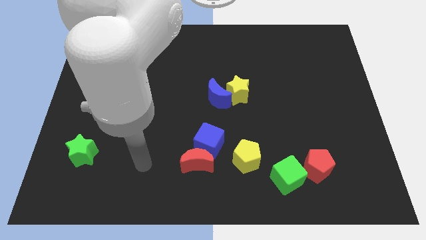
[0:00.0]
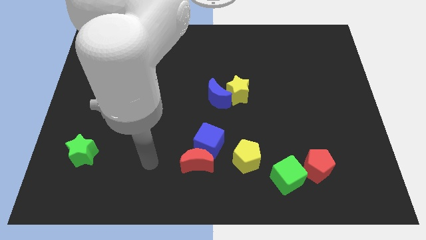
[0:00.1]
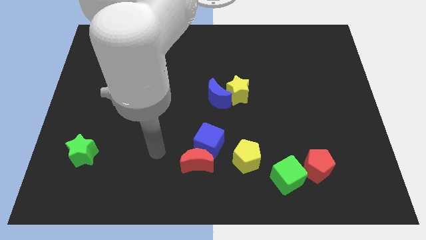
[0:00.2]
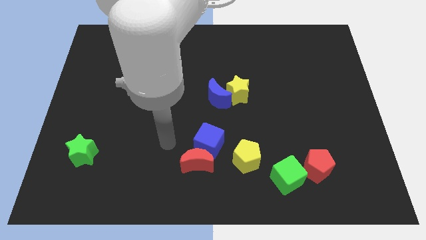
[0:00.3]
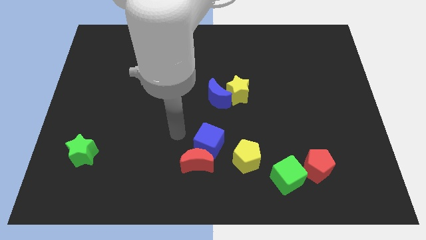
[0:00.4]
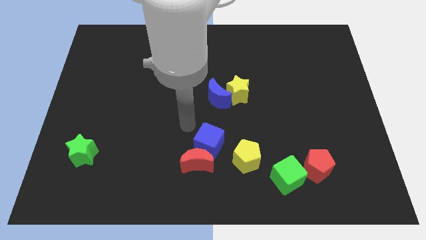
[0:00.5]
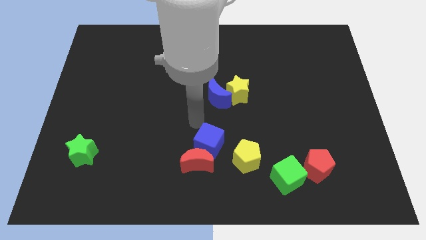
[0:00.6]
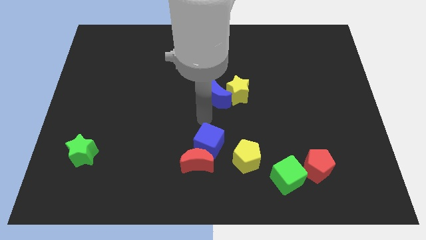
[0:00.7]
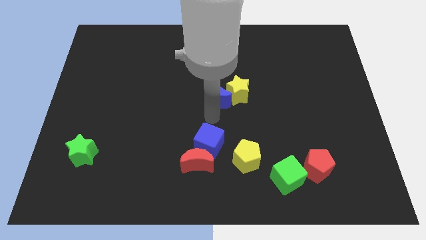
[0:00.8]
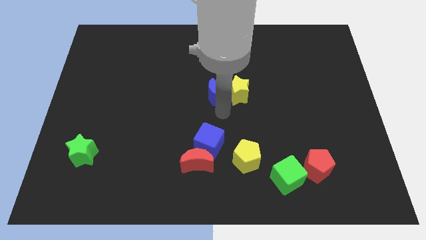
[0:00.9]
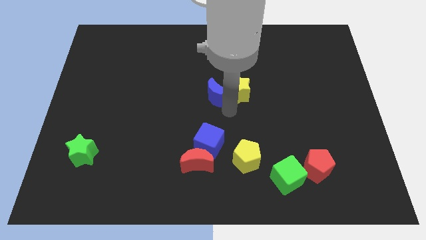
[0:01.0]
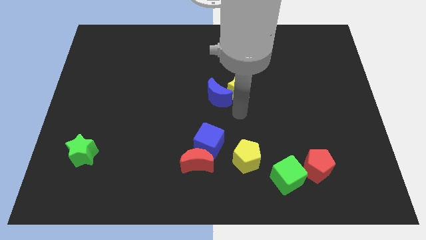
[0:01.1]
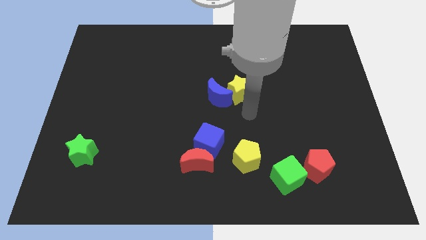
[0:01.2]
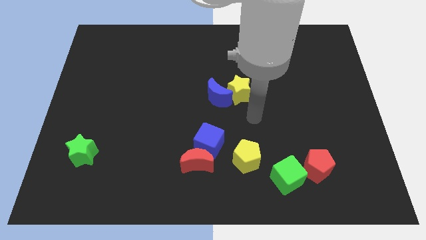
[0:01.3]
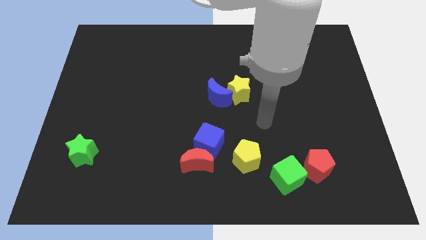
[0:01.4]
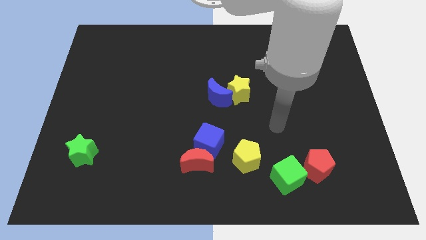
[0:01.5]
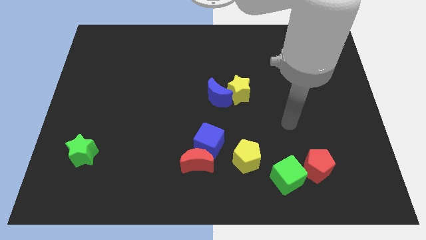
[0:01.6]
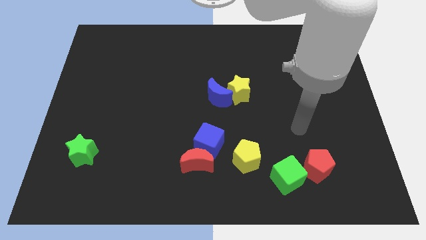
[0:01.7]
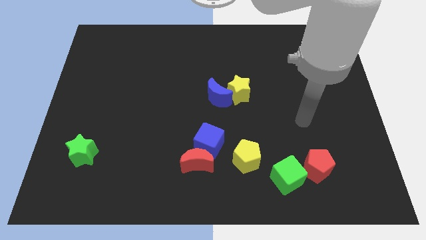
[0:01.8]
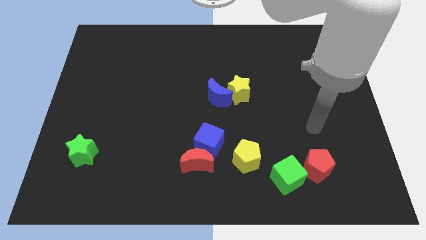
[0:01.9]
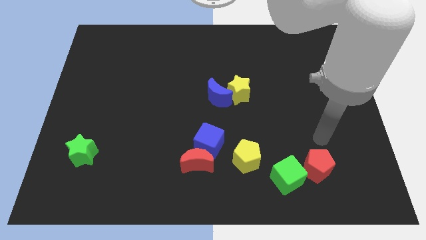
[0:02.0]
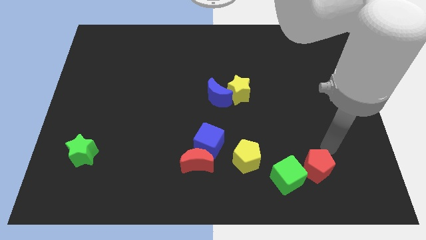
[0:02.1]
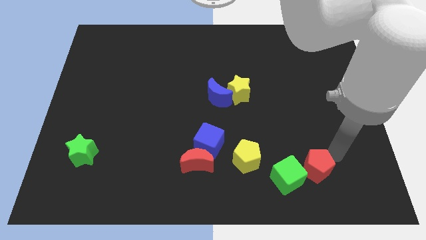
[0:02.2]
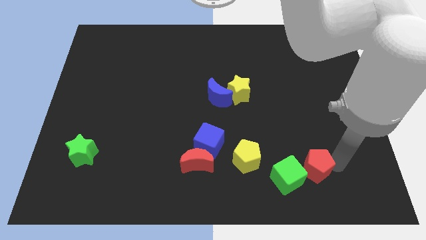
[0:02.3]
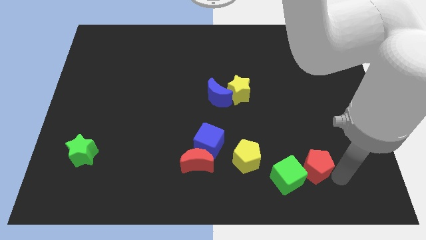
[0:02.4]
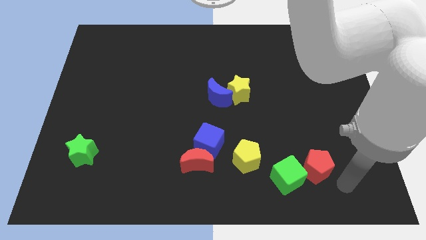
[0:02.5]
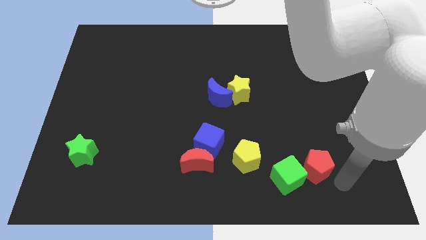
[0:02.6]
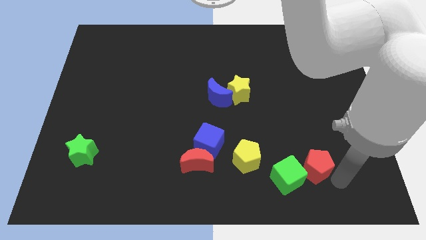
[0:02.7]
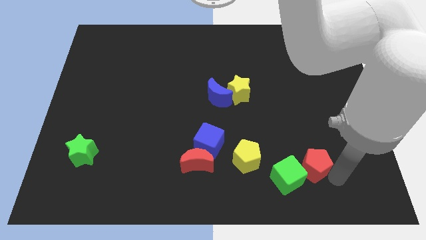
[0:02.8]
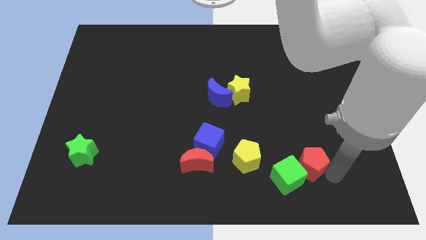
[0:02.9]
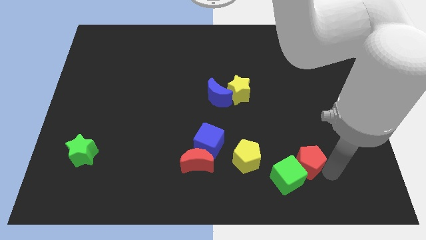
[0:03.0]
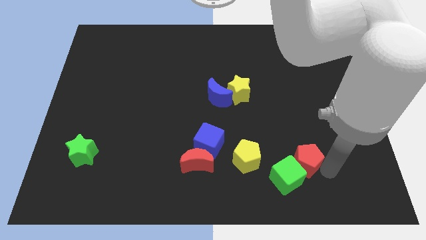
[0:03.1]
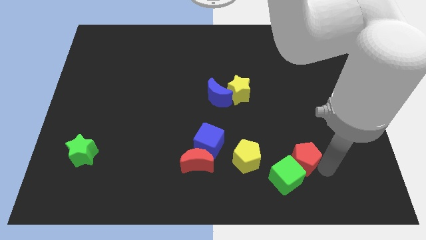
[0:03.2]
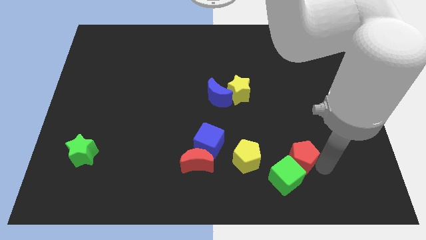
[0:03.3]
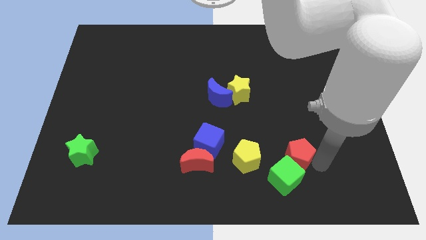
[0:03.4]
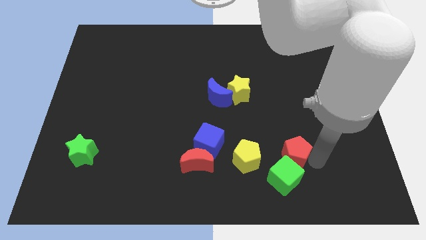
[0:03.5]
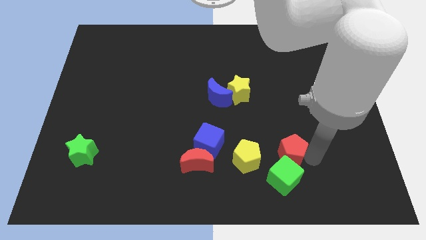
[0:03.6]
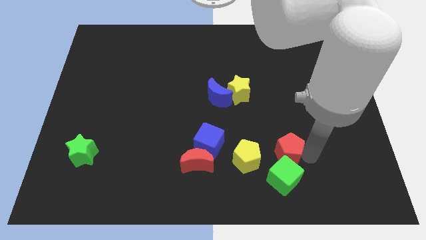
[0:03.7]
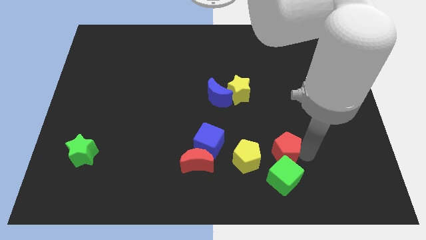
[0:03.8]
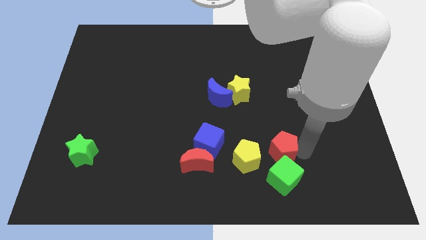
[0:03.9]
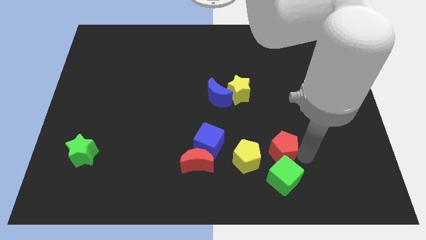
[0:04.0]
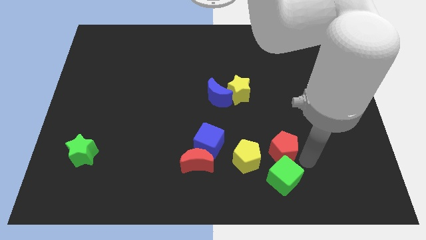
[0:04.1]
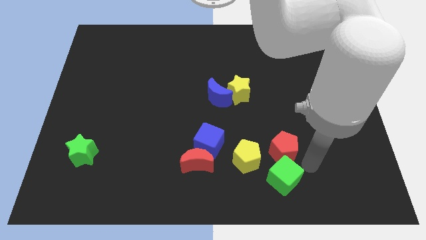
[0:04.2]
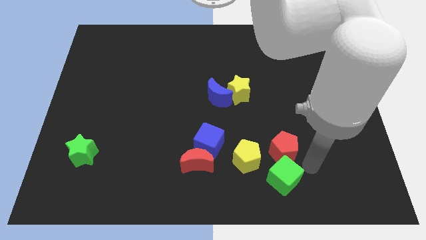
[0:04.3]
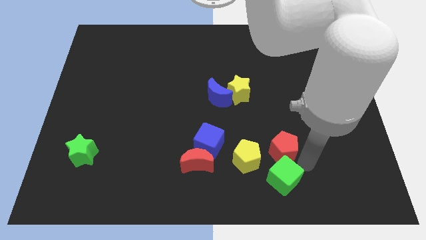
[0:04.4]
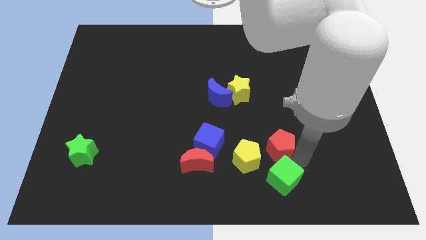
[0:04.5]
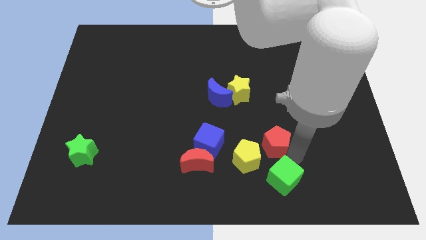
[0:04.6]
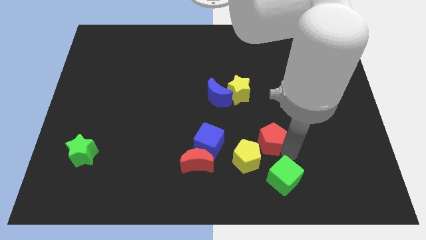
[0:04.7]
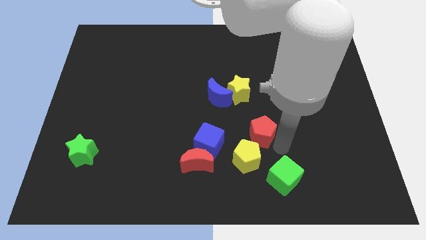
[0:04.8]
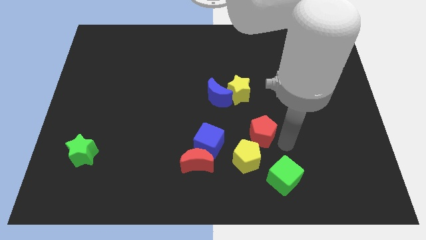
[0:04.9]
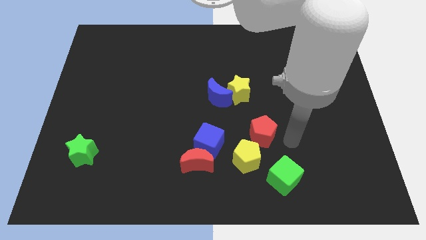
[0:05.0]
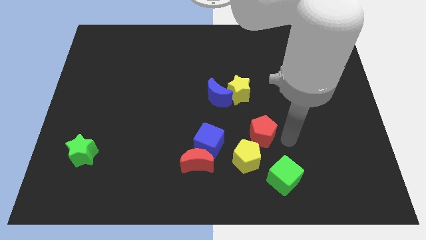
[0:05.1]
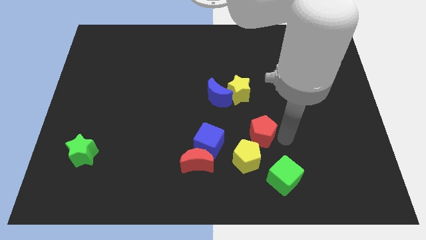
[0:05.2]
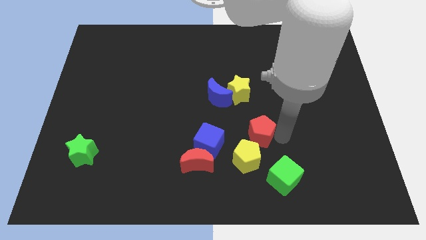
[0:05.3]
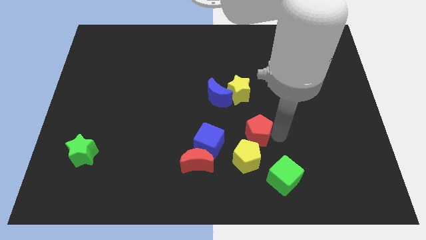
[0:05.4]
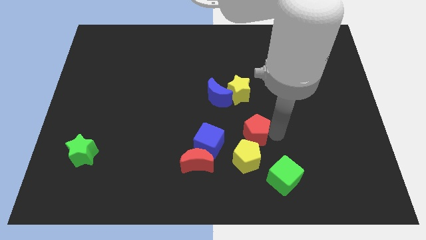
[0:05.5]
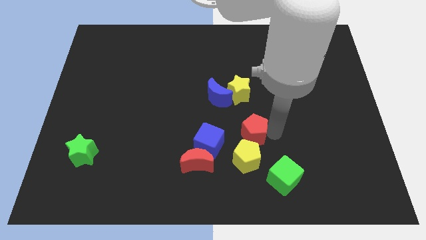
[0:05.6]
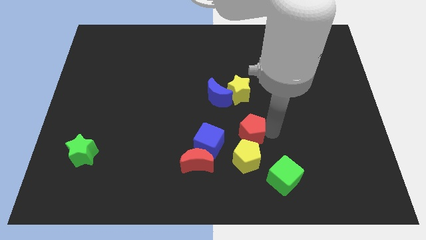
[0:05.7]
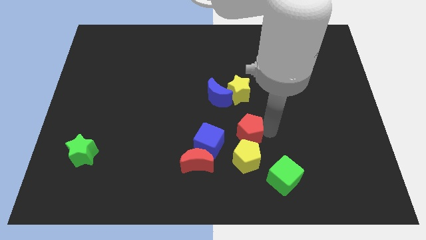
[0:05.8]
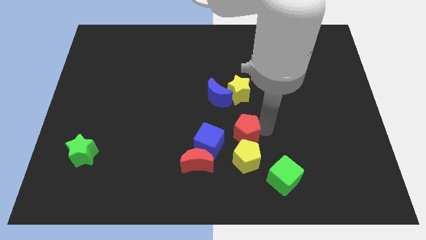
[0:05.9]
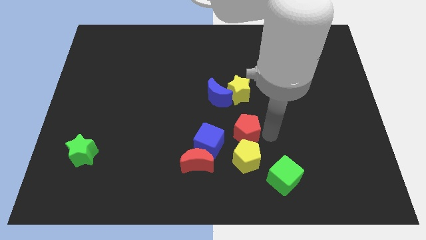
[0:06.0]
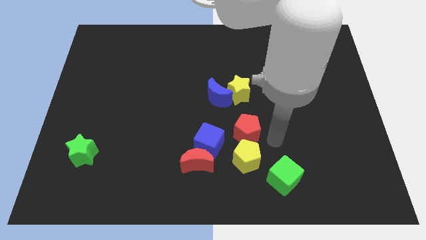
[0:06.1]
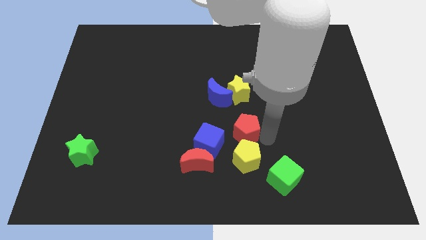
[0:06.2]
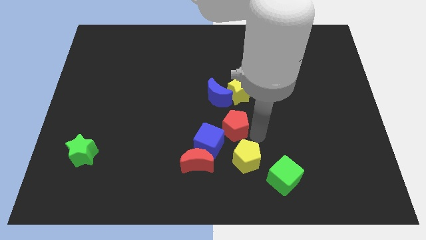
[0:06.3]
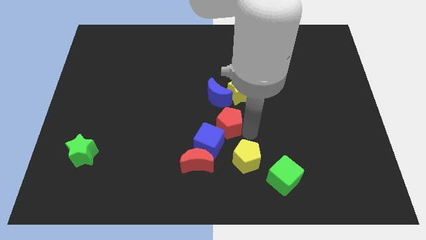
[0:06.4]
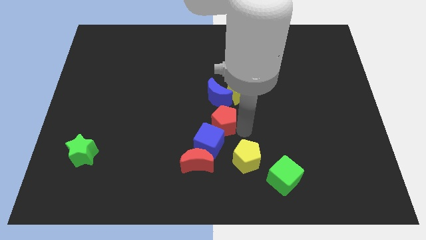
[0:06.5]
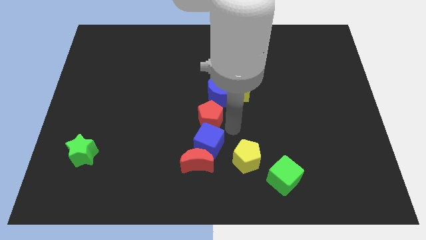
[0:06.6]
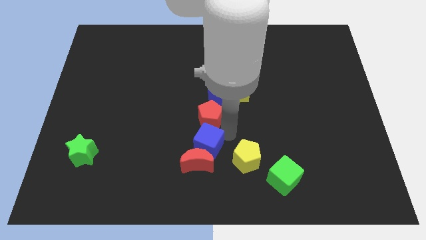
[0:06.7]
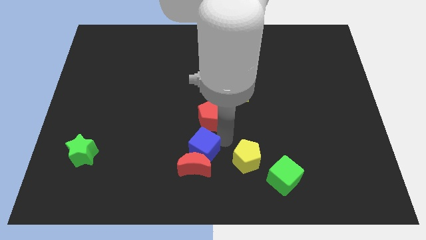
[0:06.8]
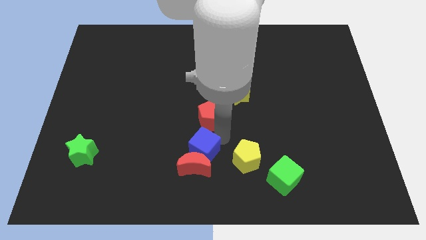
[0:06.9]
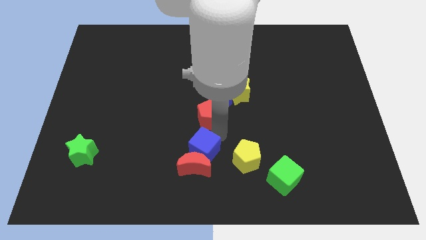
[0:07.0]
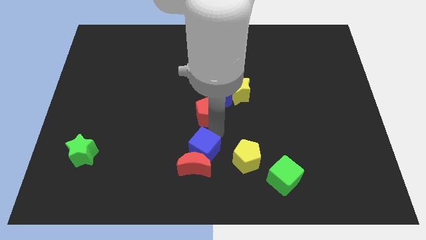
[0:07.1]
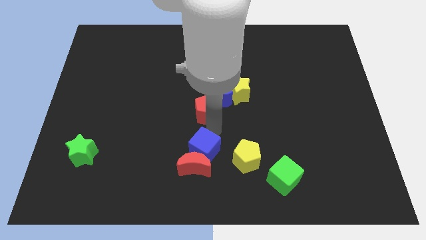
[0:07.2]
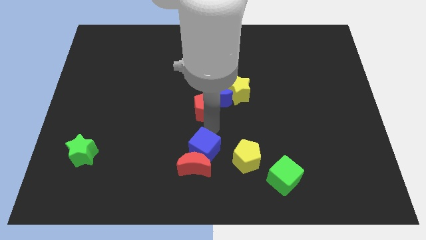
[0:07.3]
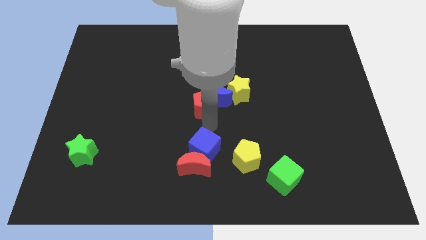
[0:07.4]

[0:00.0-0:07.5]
put the red pentagon just left of the yellow star
